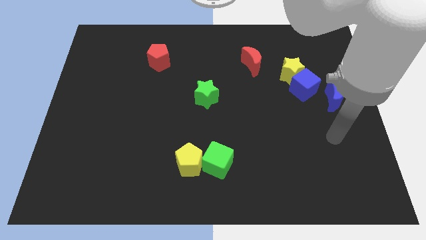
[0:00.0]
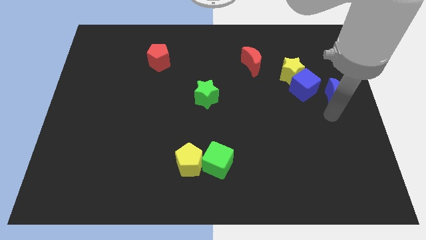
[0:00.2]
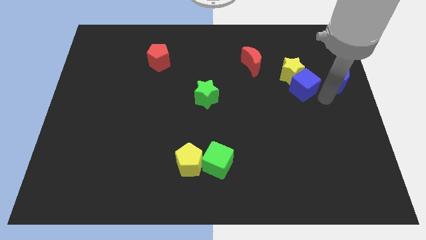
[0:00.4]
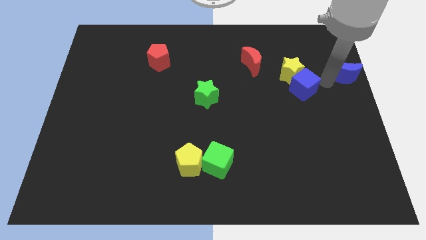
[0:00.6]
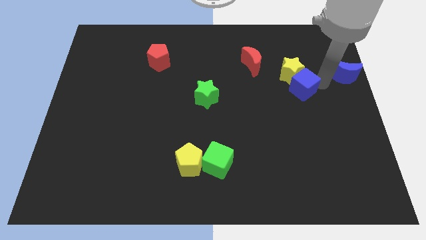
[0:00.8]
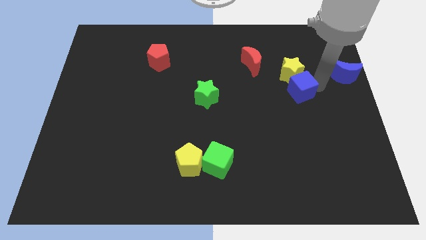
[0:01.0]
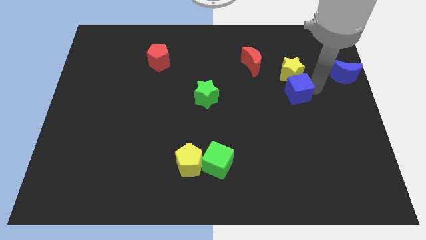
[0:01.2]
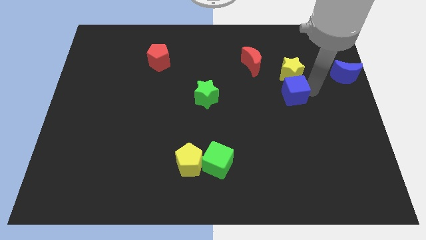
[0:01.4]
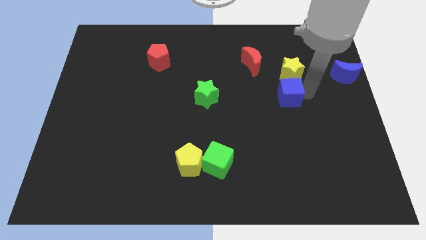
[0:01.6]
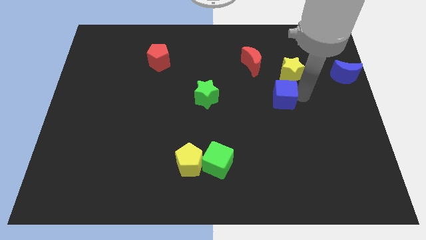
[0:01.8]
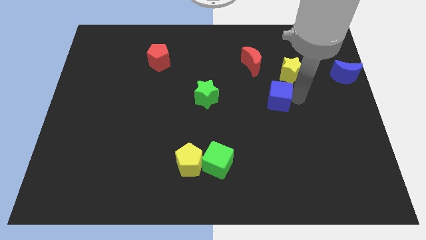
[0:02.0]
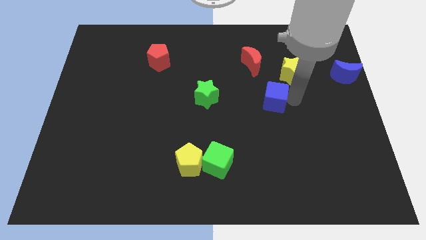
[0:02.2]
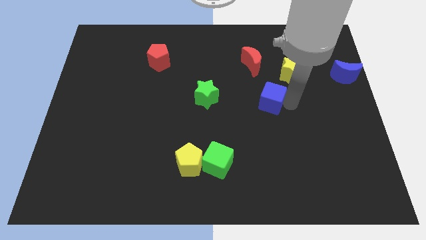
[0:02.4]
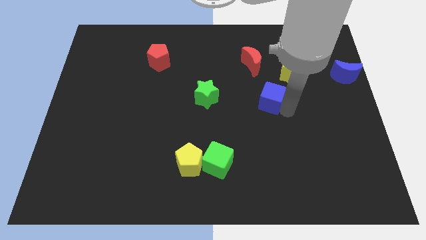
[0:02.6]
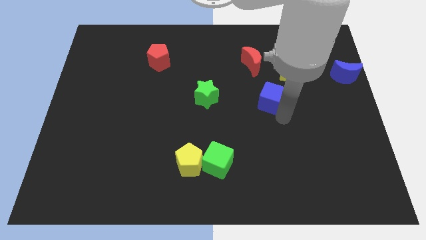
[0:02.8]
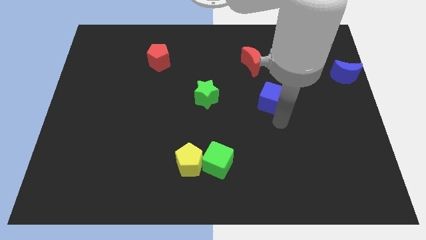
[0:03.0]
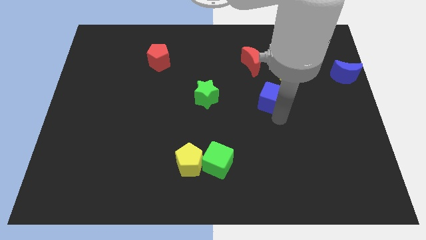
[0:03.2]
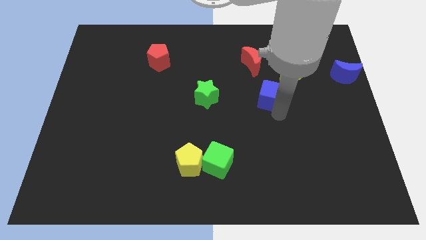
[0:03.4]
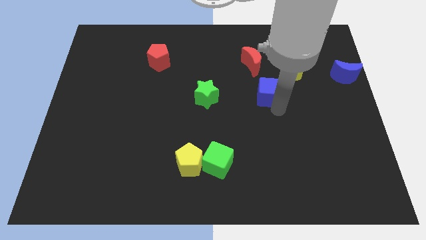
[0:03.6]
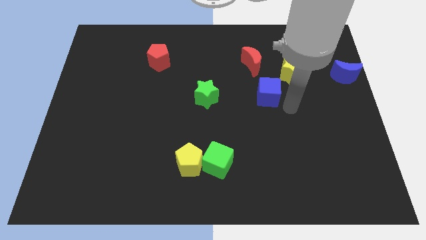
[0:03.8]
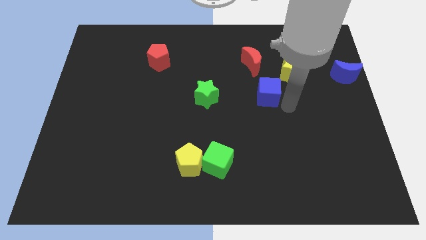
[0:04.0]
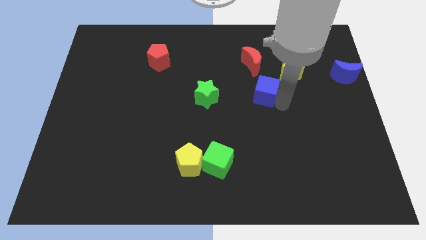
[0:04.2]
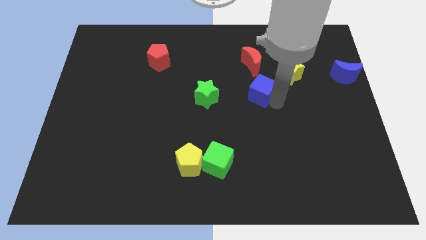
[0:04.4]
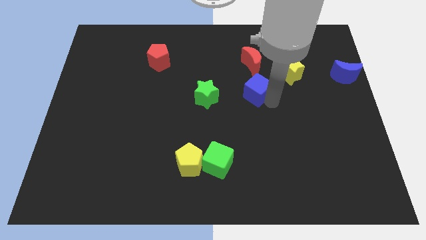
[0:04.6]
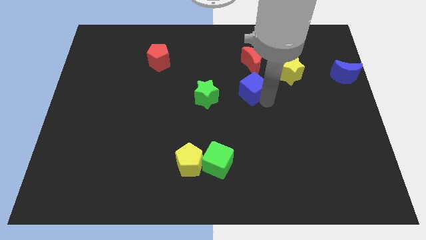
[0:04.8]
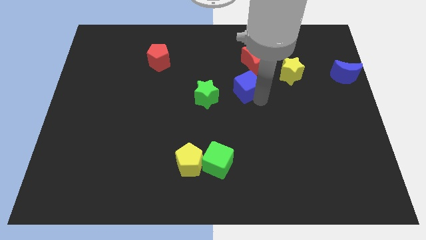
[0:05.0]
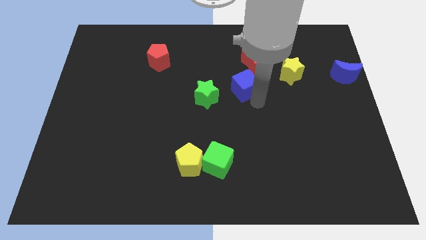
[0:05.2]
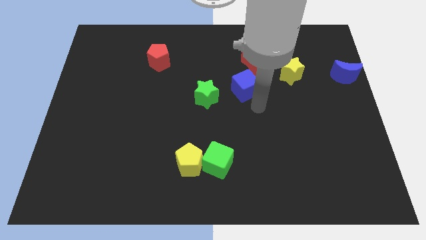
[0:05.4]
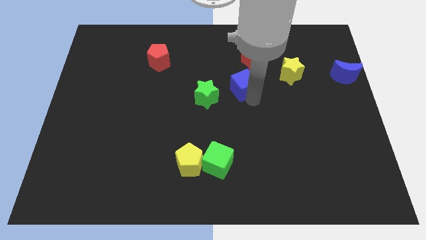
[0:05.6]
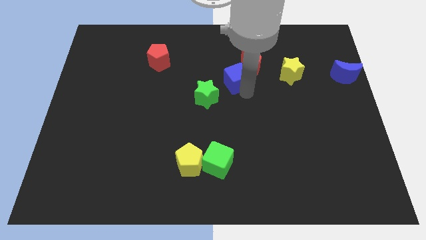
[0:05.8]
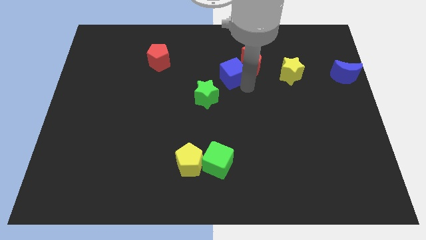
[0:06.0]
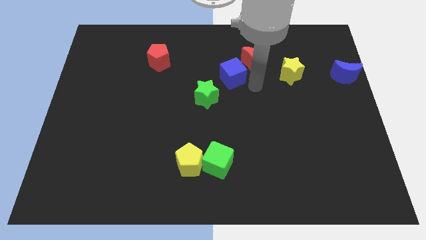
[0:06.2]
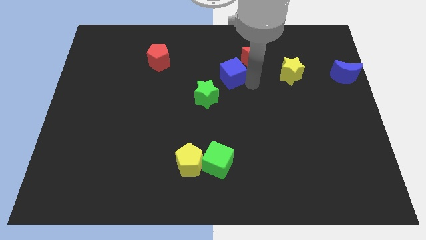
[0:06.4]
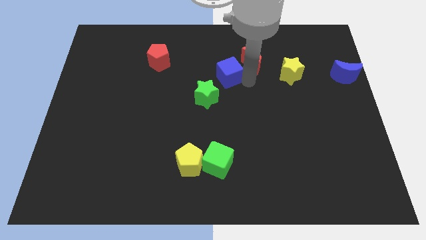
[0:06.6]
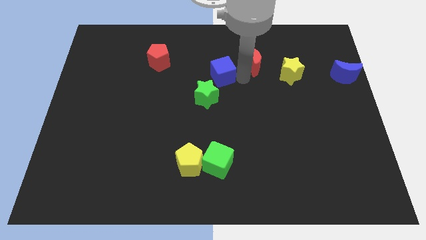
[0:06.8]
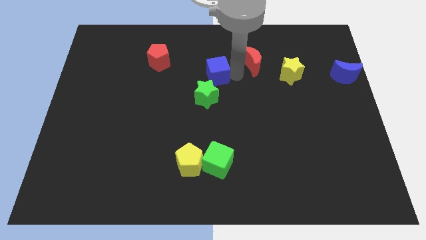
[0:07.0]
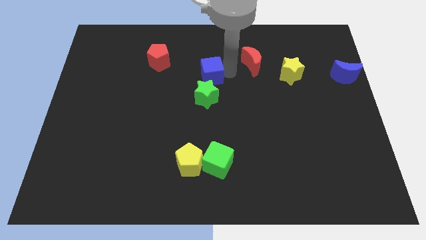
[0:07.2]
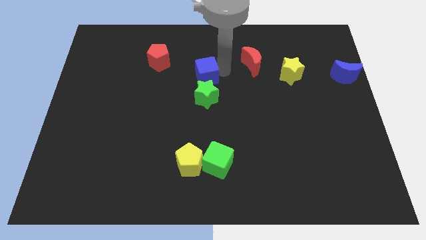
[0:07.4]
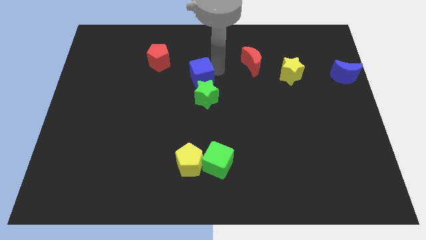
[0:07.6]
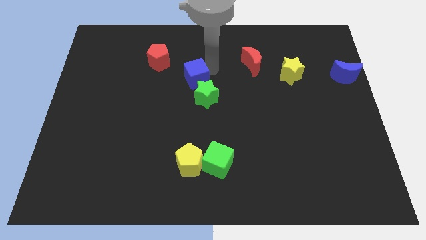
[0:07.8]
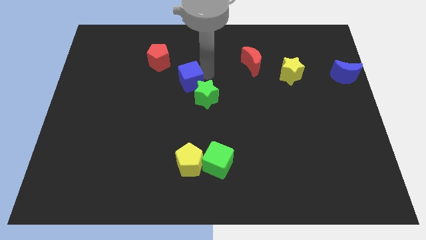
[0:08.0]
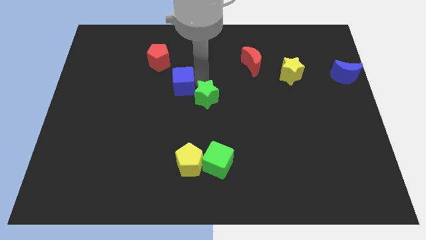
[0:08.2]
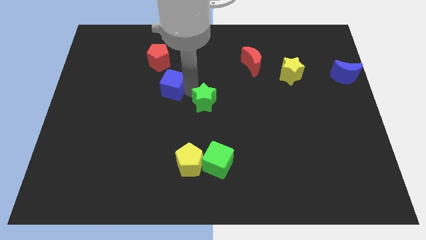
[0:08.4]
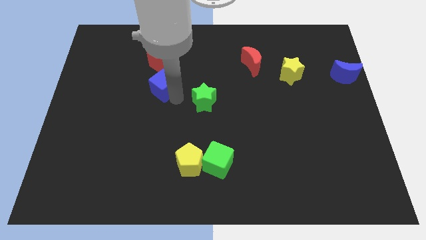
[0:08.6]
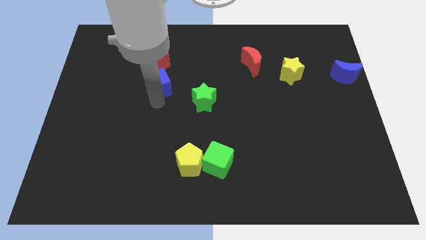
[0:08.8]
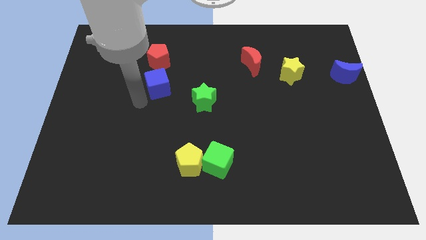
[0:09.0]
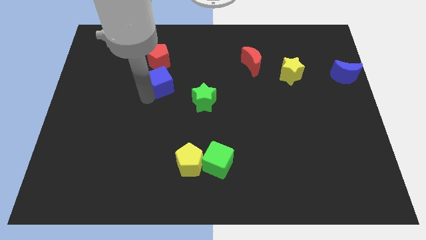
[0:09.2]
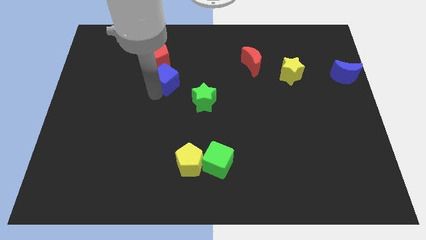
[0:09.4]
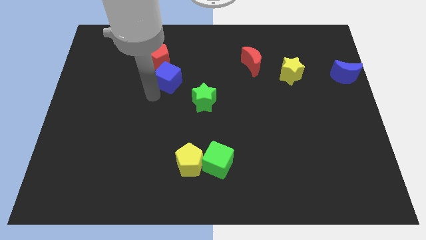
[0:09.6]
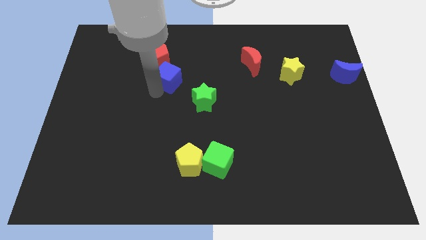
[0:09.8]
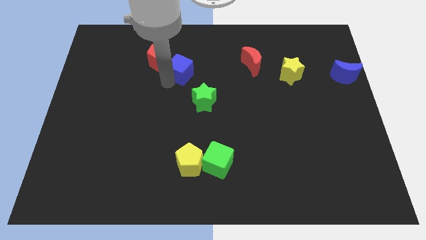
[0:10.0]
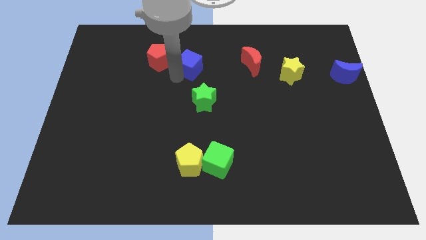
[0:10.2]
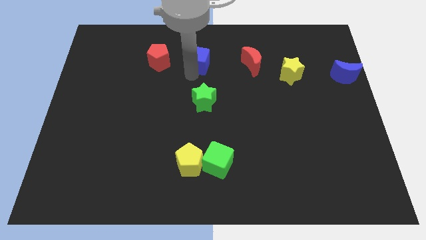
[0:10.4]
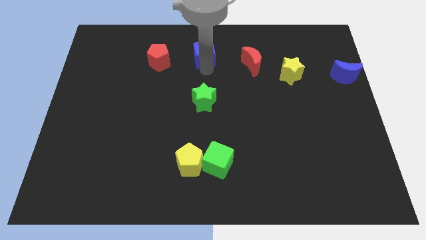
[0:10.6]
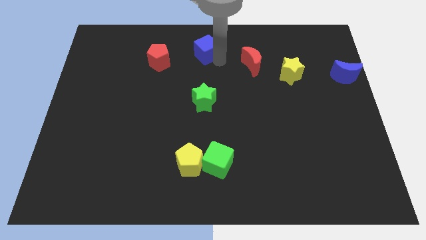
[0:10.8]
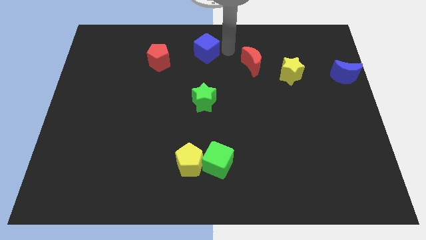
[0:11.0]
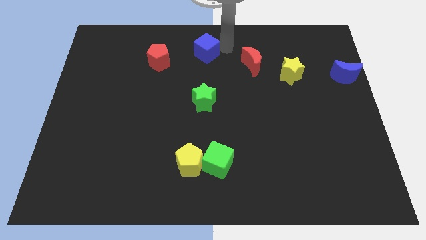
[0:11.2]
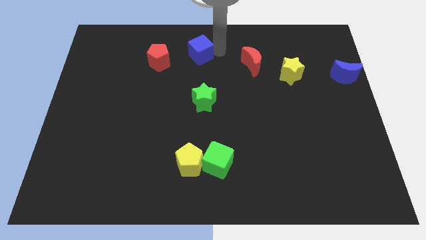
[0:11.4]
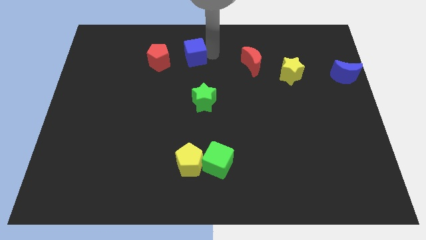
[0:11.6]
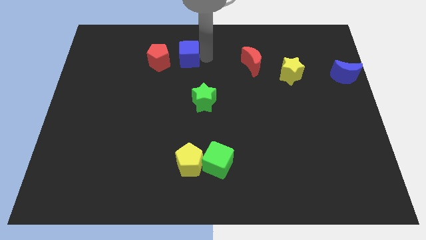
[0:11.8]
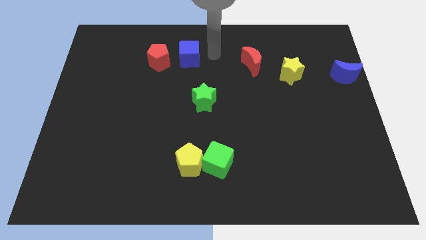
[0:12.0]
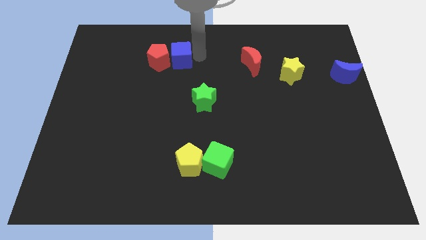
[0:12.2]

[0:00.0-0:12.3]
put the blue cube to the red pentagon
